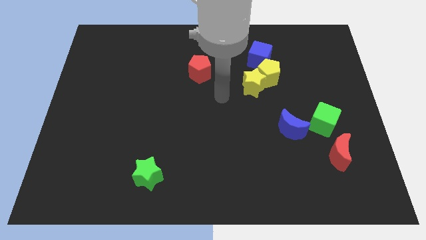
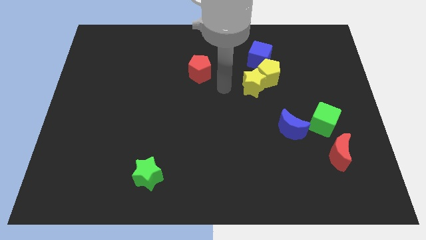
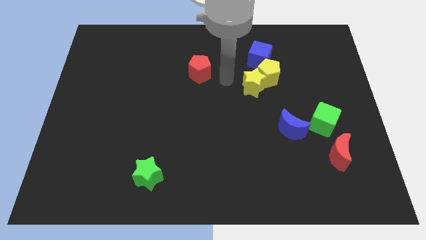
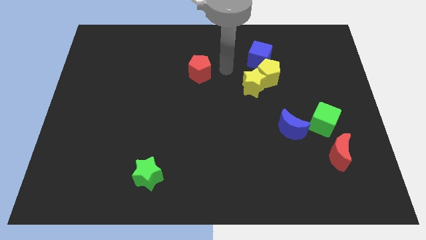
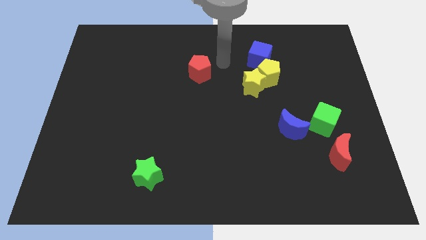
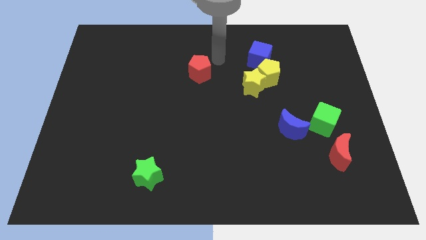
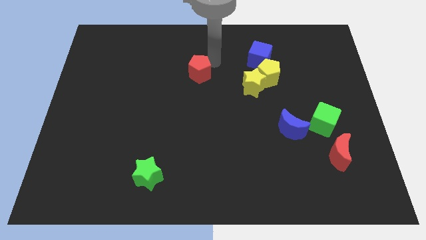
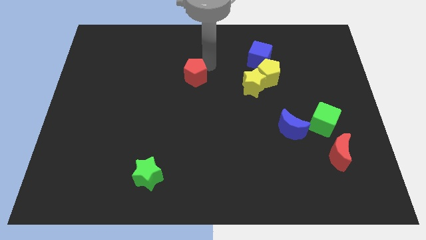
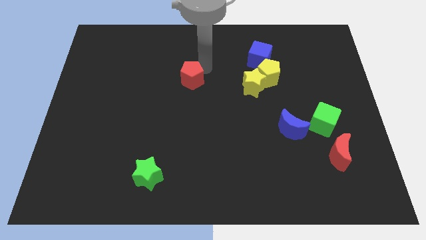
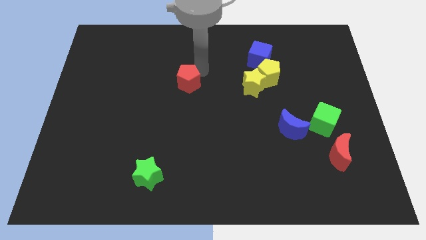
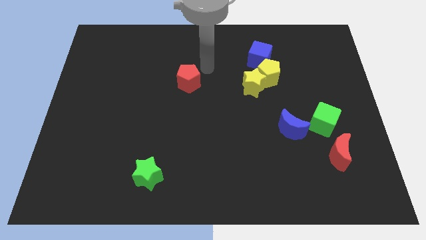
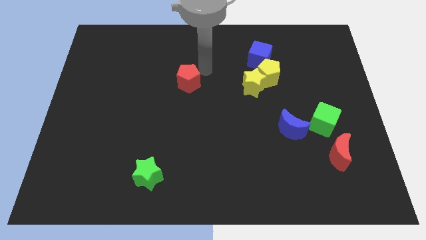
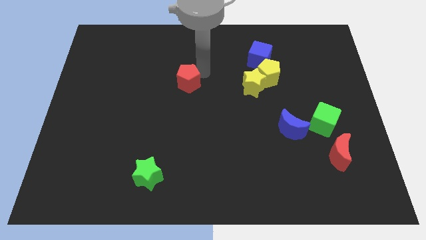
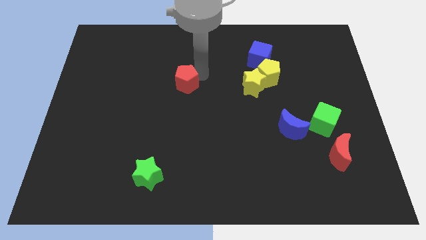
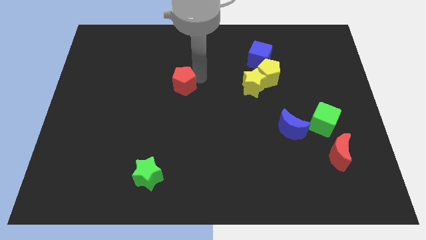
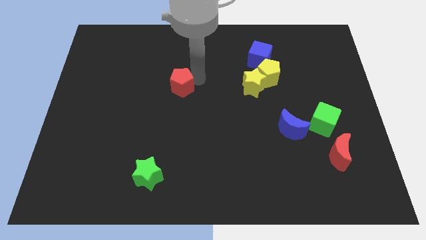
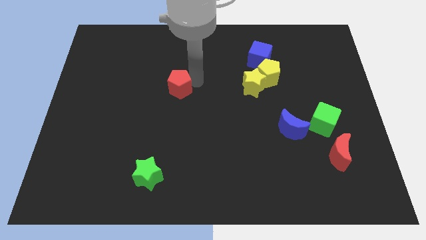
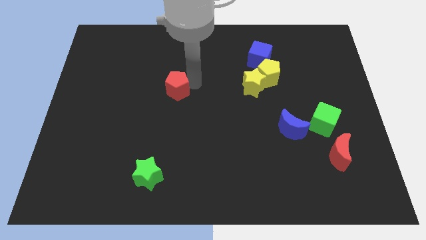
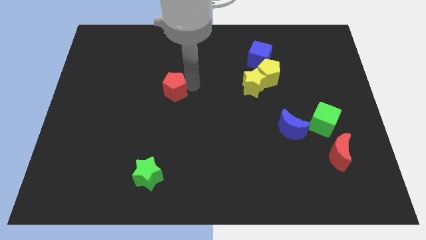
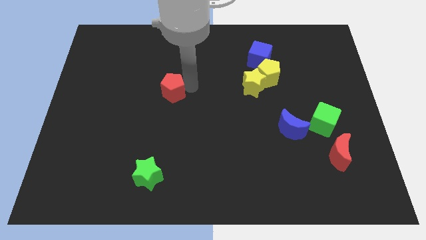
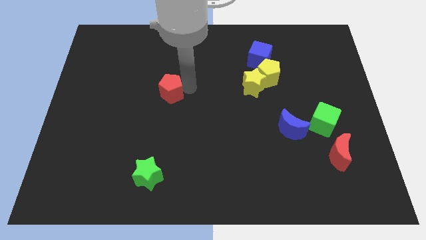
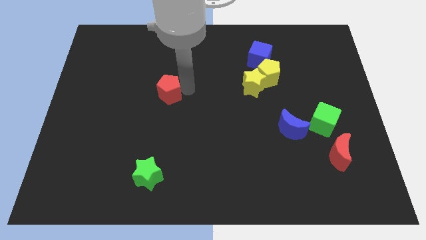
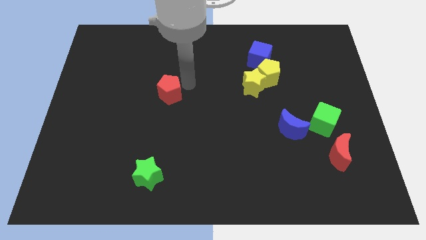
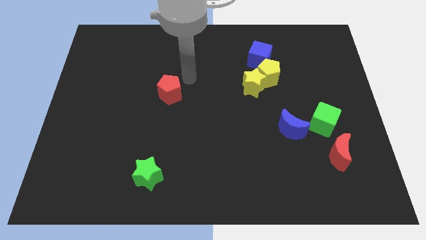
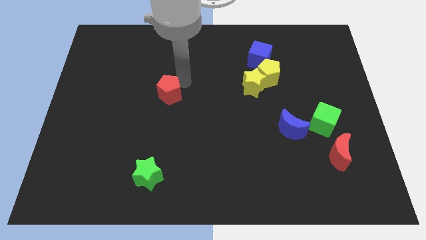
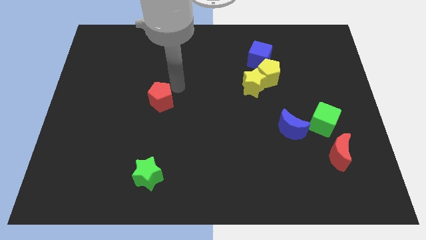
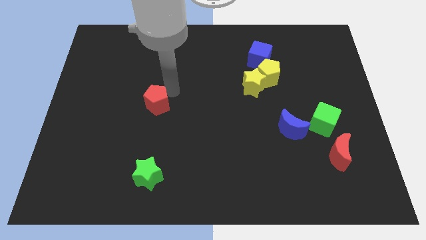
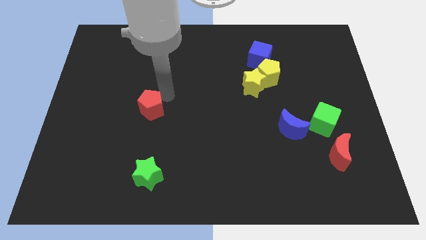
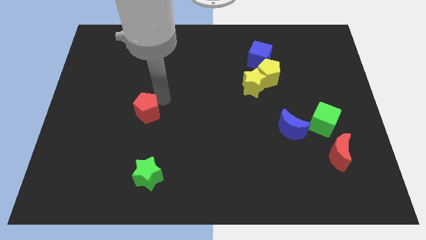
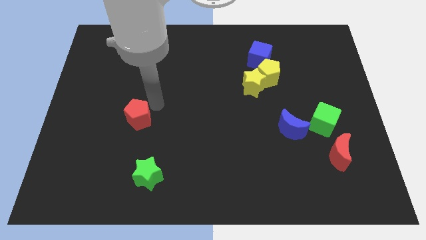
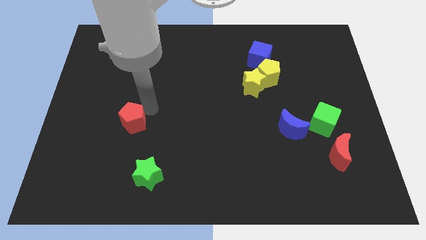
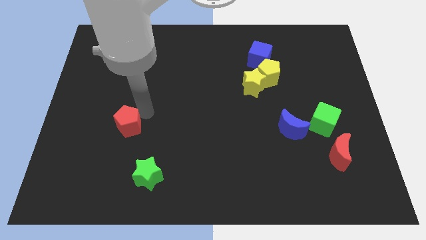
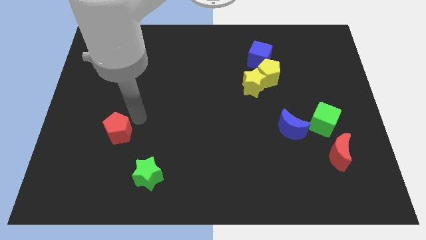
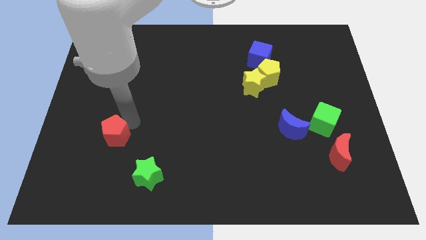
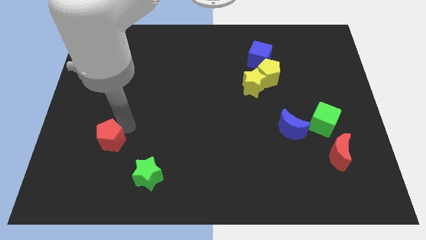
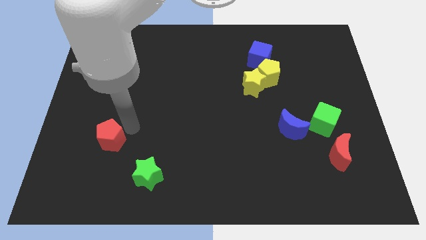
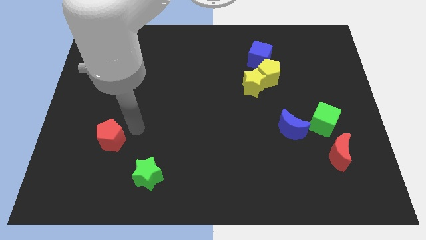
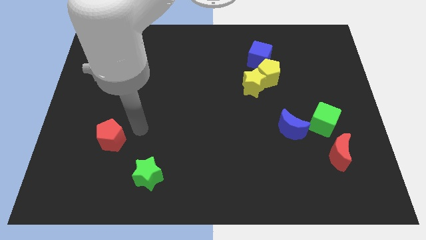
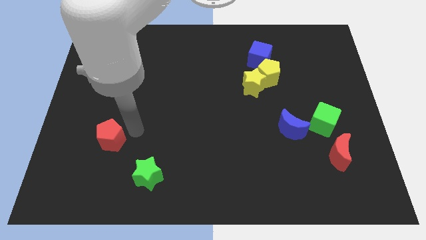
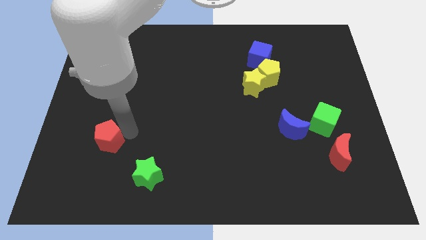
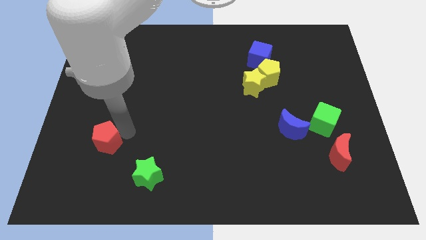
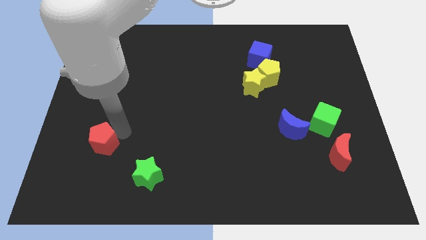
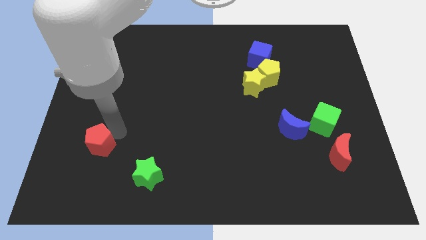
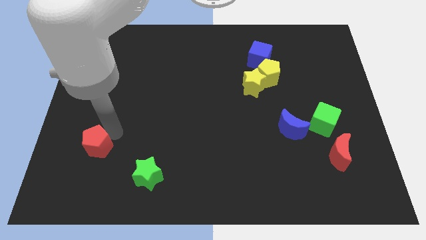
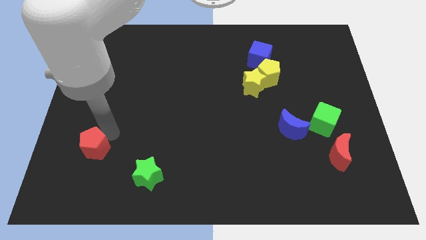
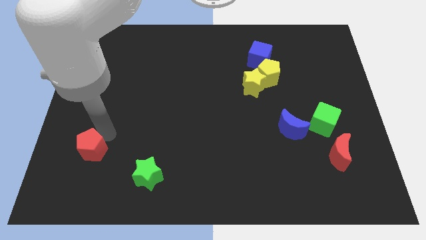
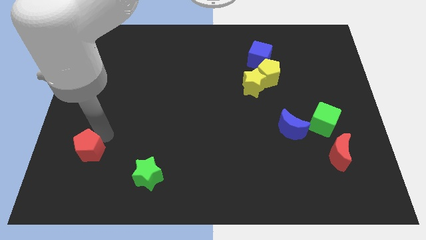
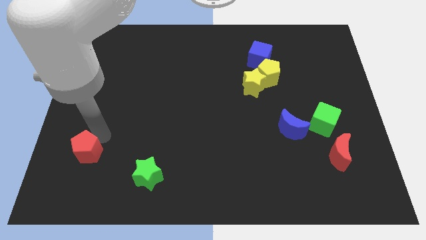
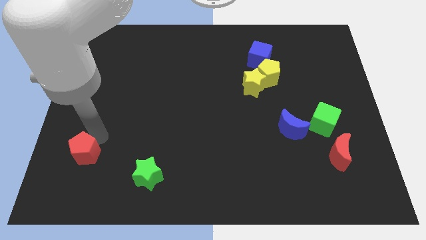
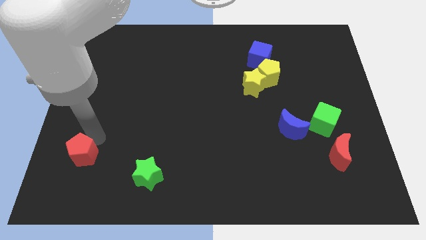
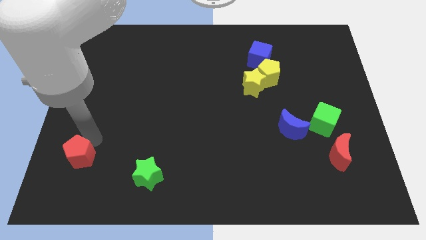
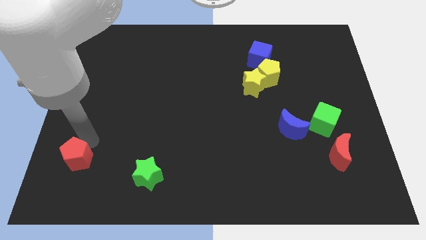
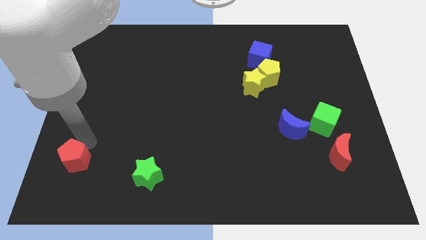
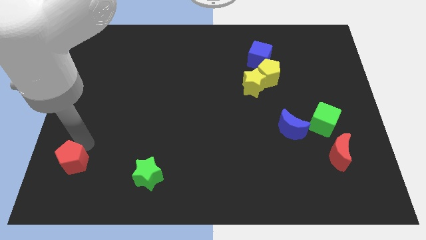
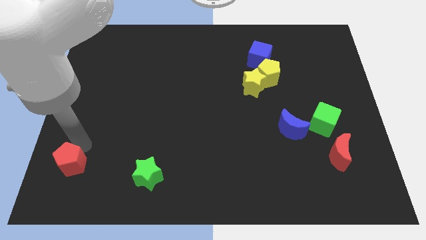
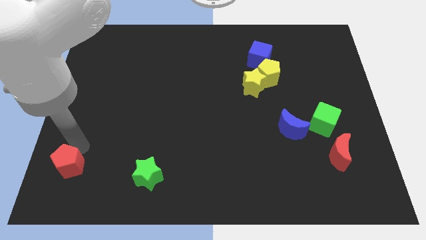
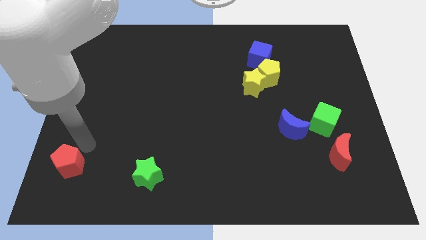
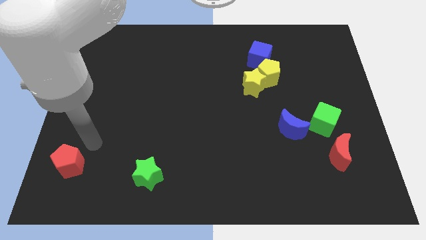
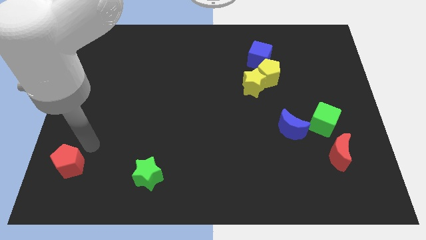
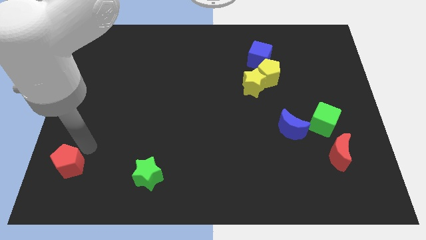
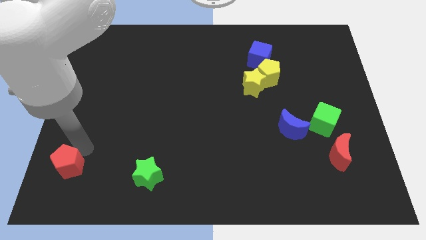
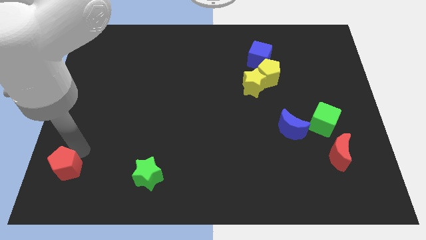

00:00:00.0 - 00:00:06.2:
slide the red pentagon to the bottom left of the board

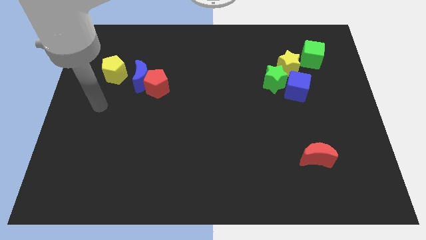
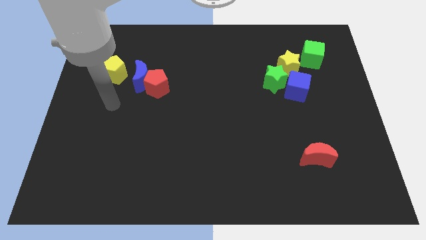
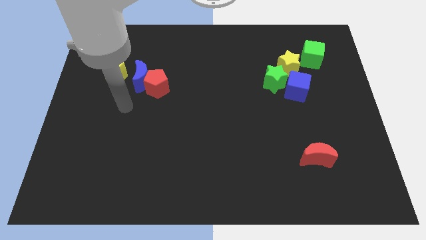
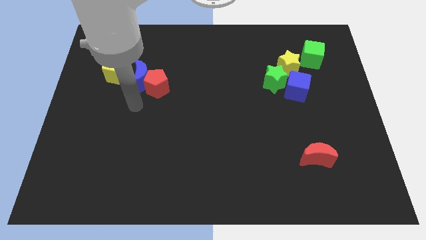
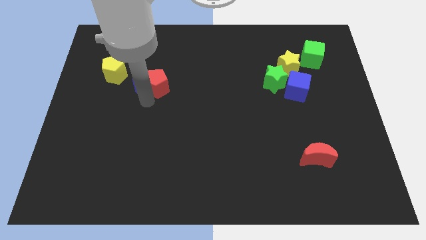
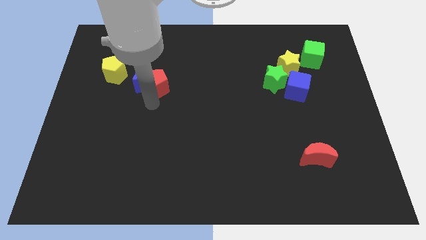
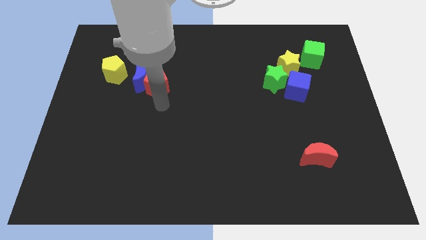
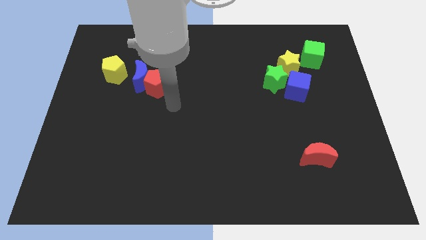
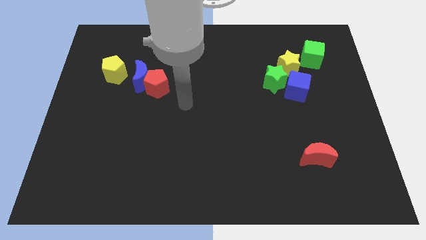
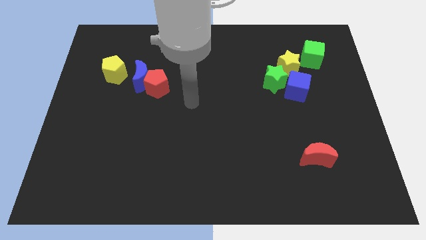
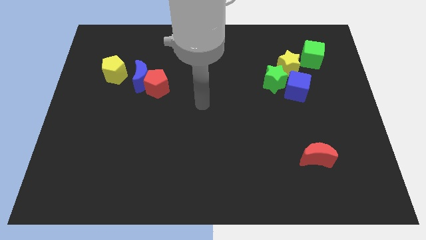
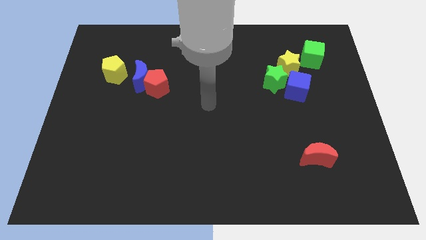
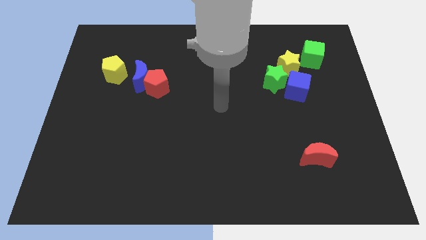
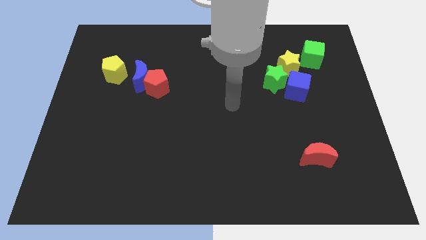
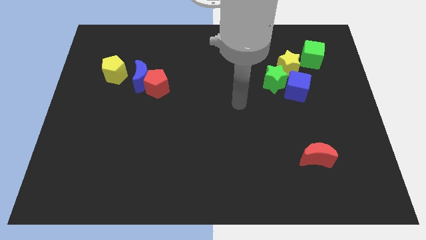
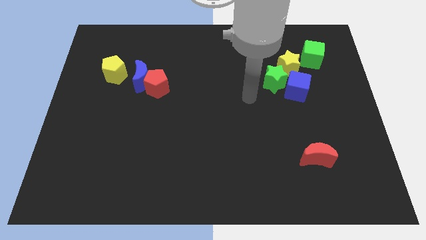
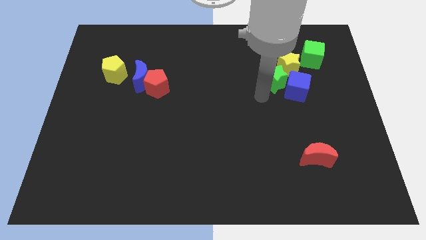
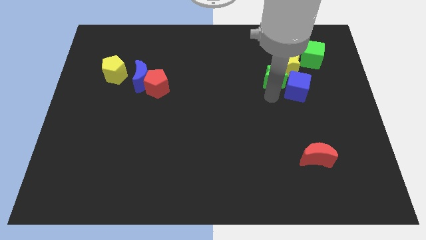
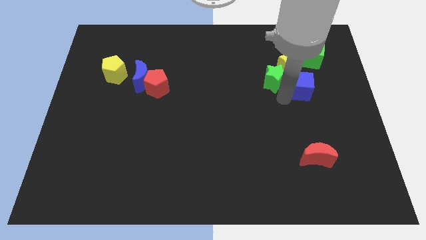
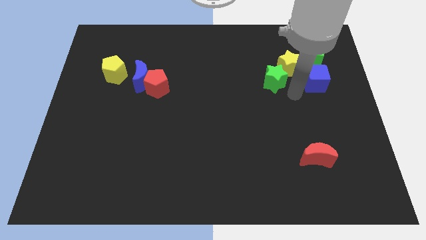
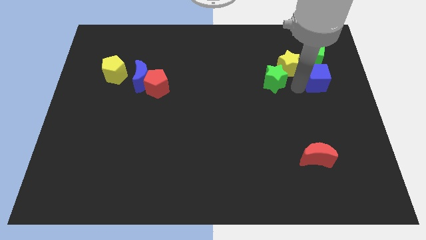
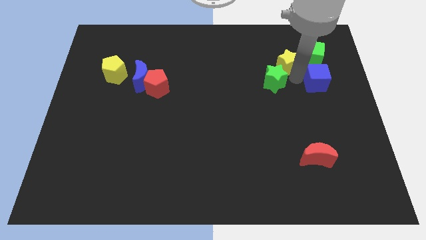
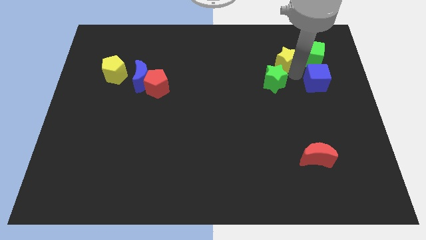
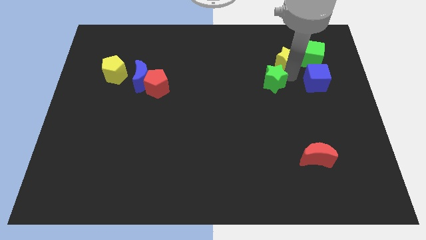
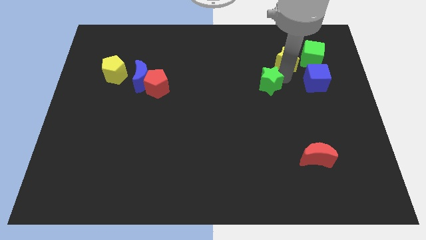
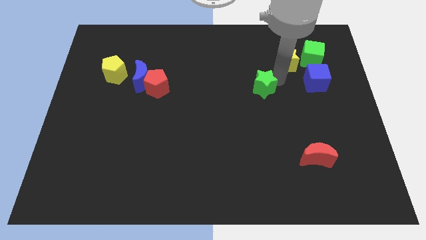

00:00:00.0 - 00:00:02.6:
push the green star to the middle
